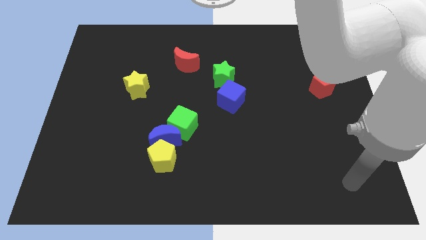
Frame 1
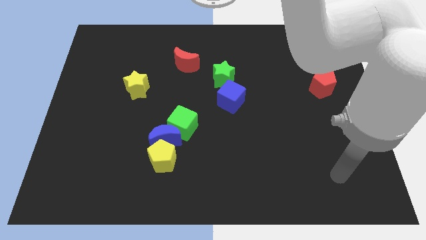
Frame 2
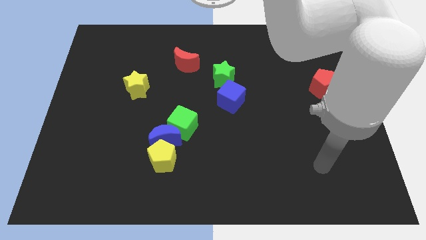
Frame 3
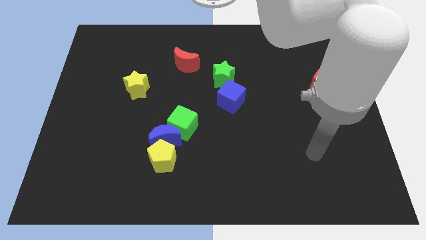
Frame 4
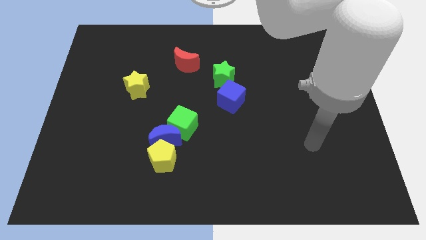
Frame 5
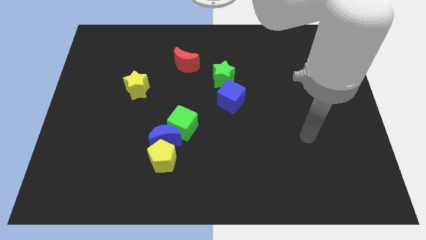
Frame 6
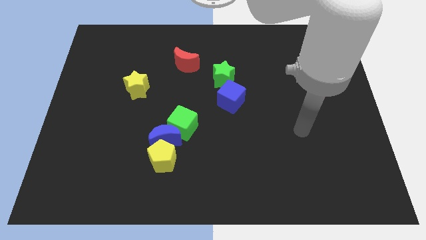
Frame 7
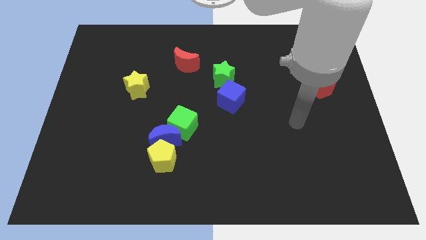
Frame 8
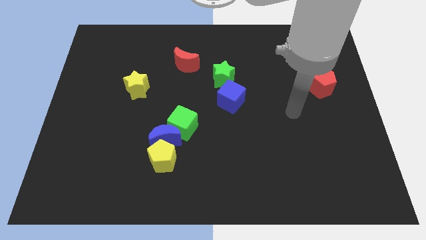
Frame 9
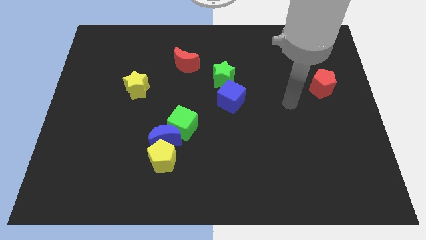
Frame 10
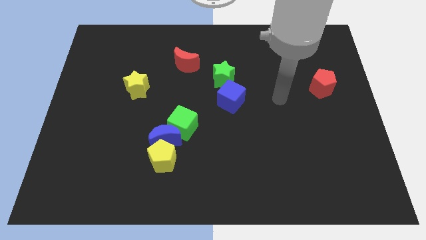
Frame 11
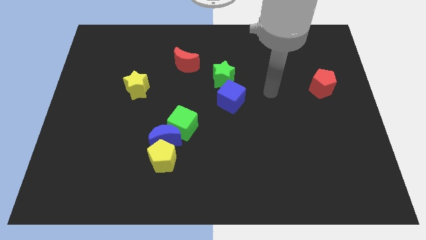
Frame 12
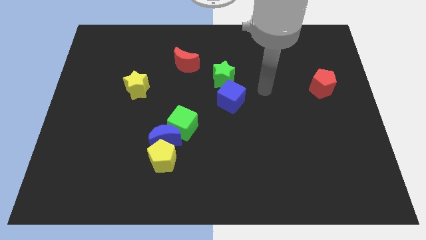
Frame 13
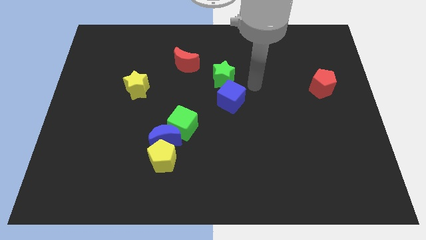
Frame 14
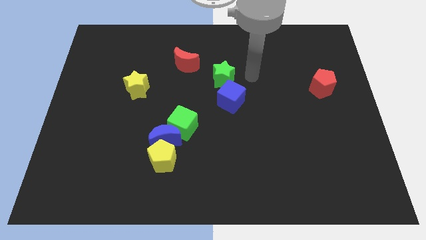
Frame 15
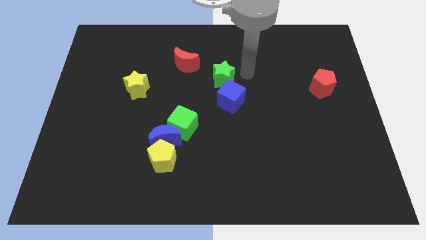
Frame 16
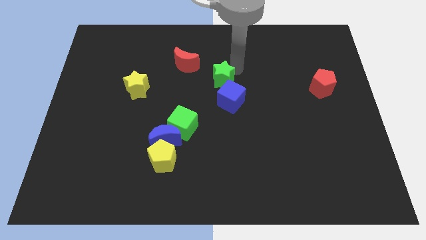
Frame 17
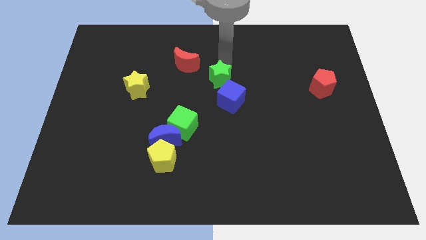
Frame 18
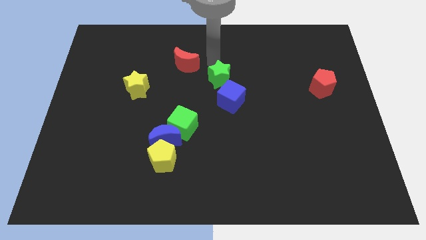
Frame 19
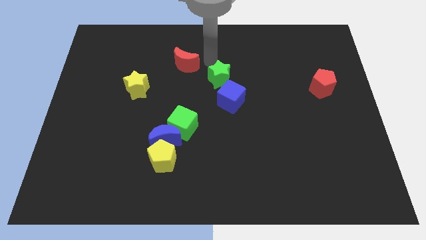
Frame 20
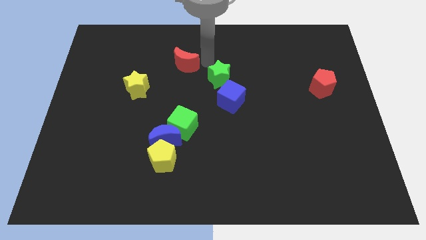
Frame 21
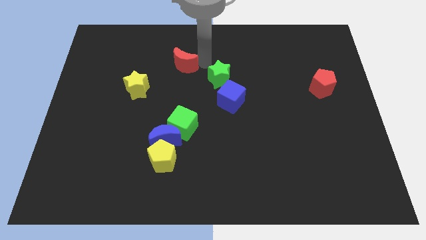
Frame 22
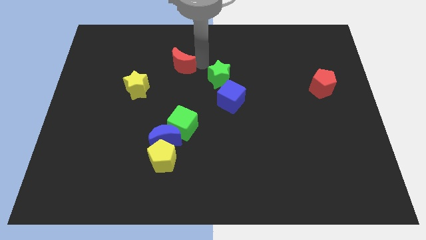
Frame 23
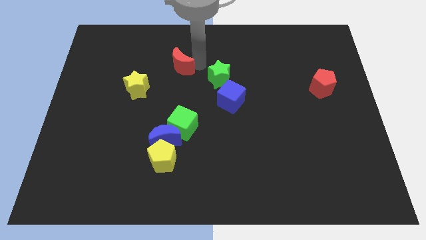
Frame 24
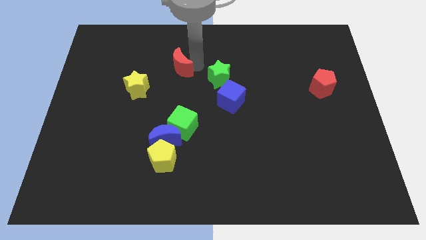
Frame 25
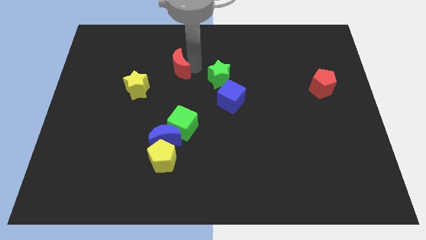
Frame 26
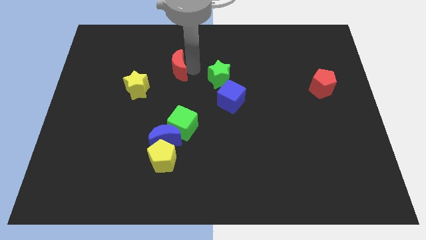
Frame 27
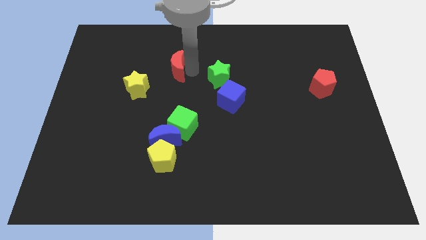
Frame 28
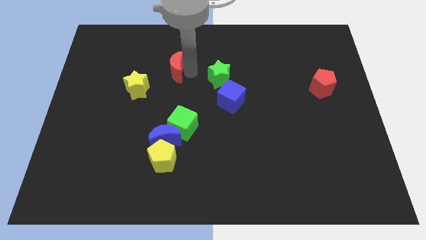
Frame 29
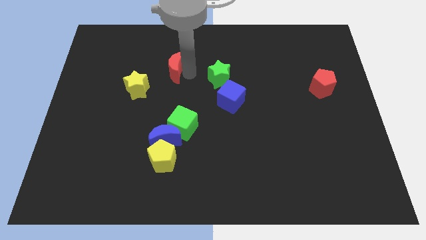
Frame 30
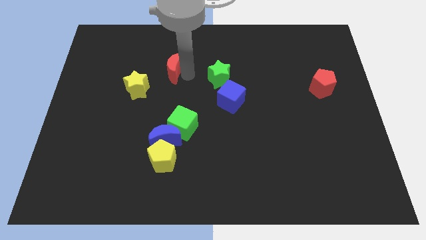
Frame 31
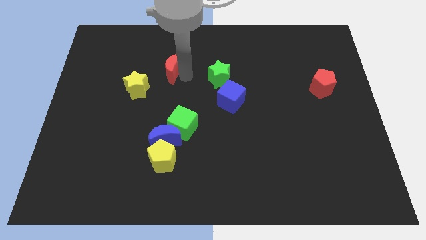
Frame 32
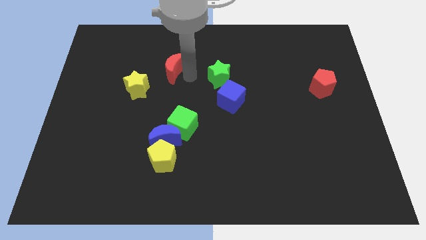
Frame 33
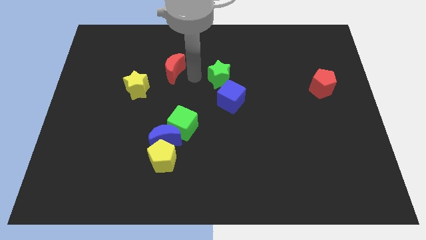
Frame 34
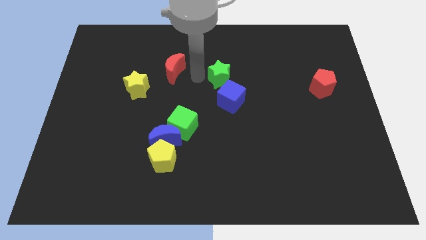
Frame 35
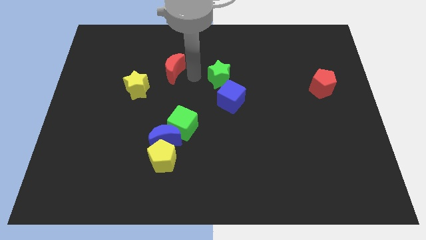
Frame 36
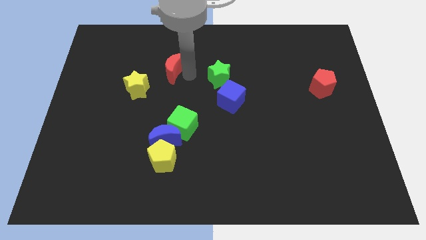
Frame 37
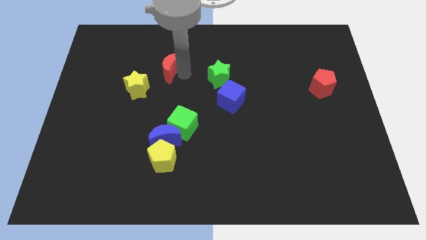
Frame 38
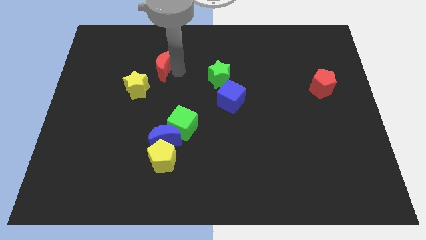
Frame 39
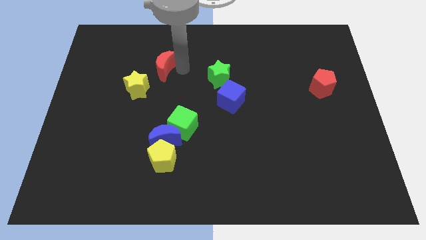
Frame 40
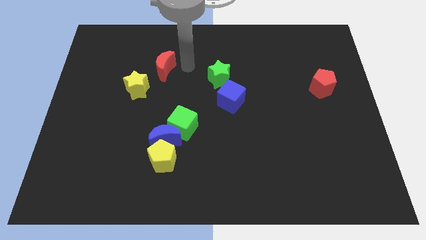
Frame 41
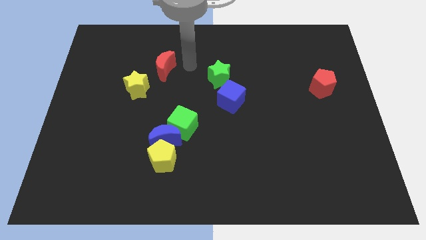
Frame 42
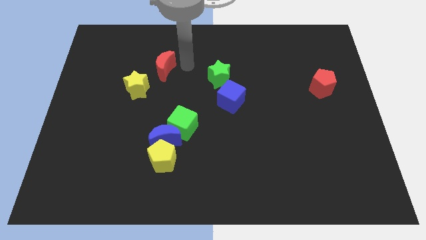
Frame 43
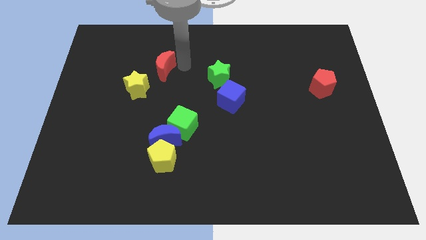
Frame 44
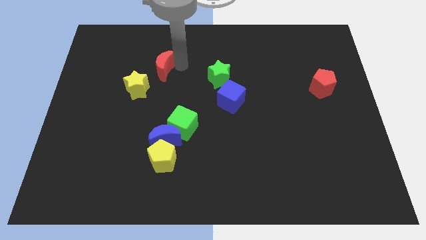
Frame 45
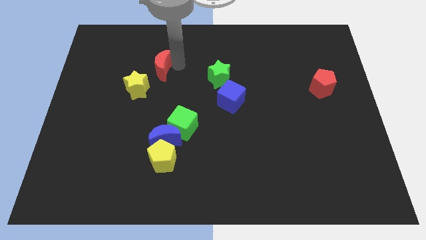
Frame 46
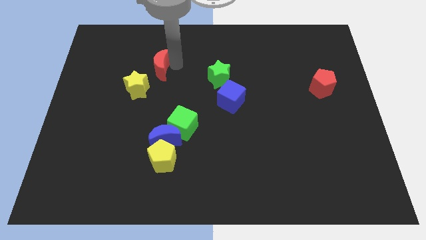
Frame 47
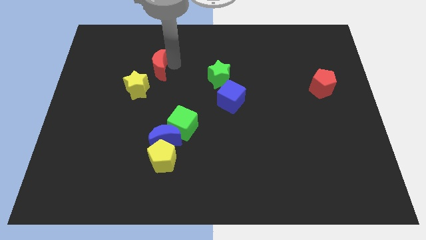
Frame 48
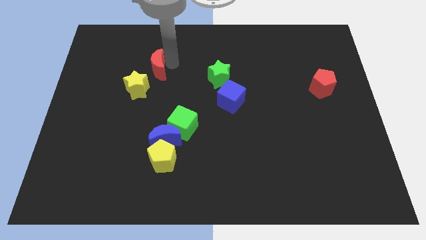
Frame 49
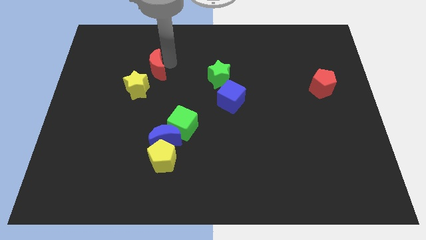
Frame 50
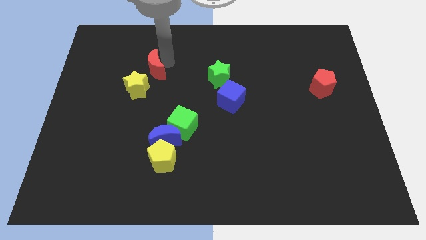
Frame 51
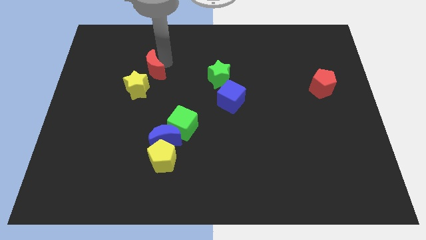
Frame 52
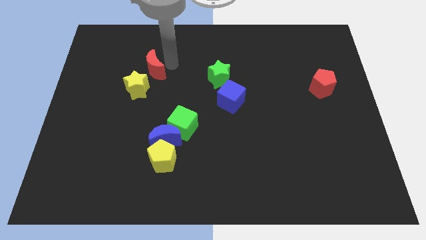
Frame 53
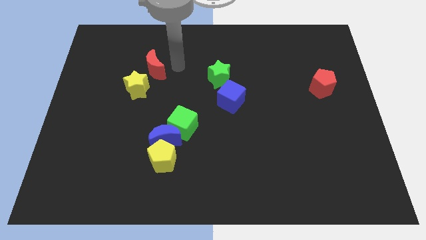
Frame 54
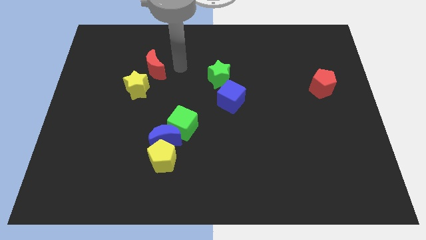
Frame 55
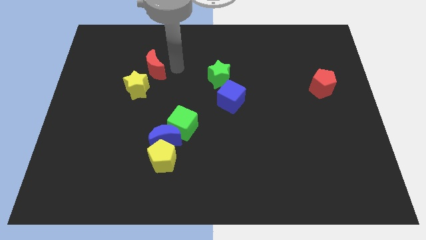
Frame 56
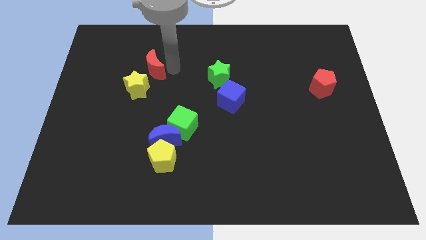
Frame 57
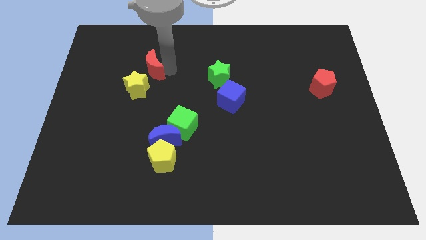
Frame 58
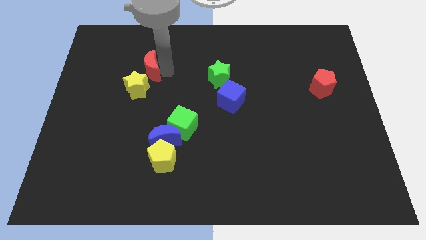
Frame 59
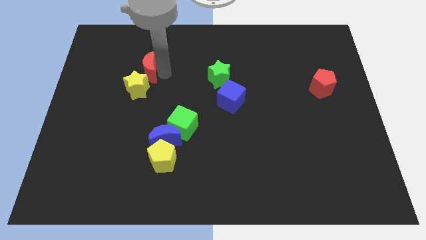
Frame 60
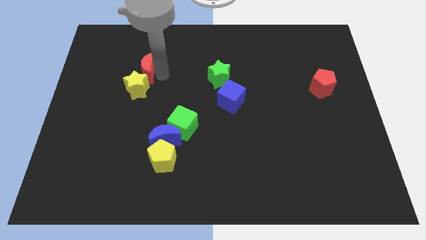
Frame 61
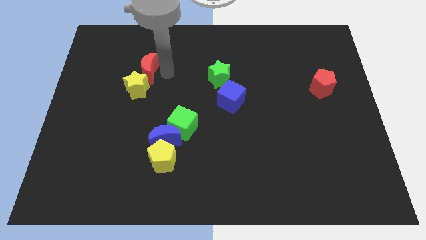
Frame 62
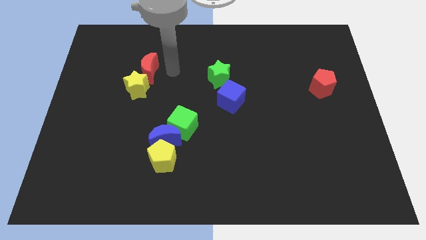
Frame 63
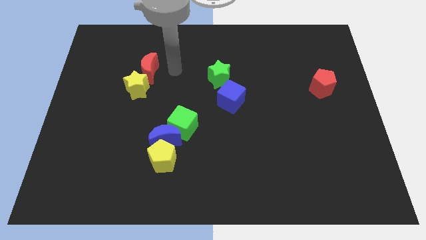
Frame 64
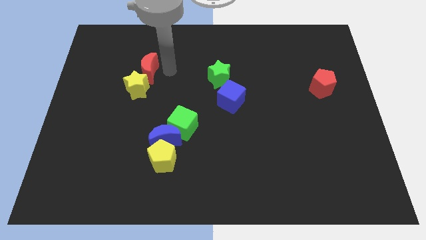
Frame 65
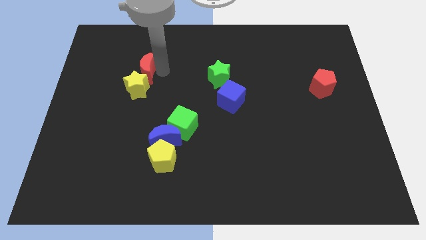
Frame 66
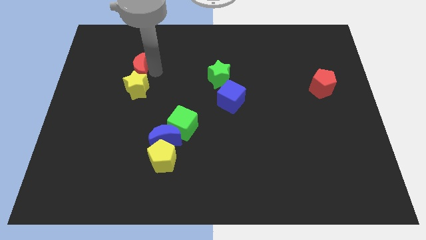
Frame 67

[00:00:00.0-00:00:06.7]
slide the red moon diagonally up and to the left of the yellow star

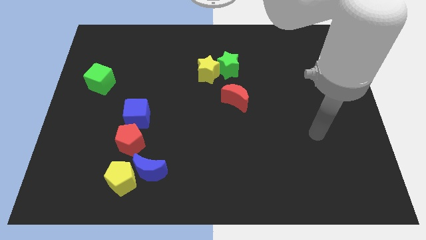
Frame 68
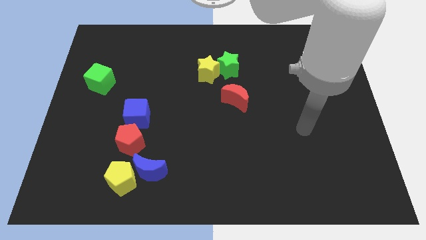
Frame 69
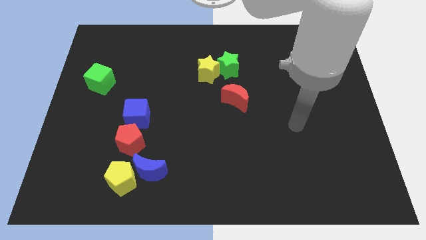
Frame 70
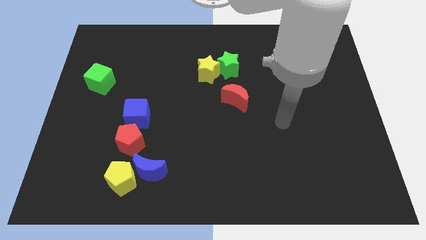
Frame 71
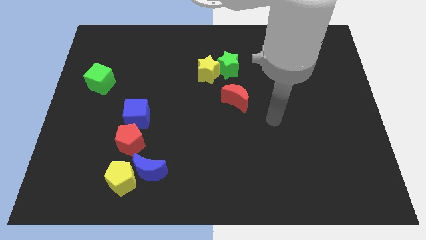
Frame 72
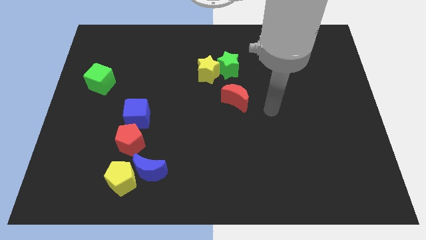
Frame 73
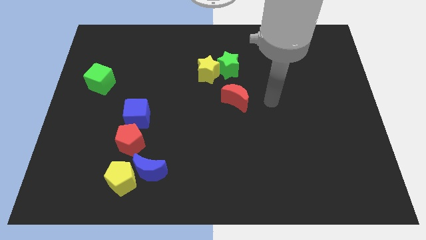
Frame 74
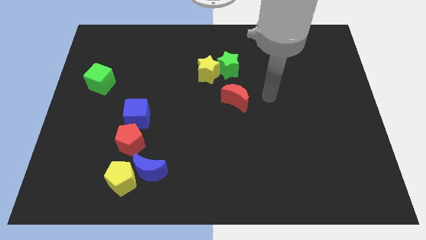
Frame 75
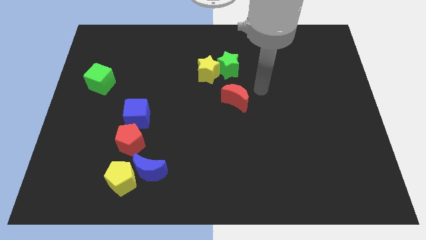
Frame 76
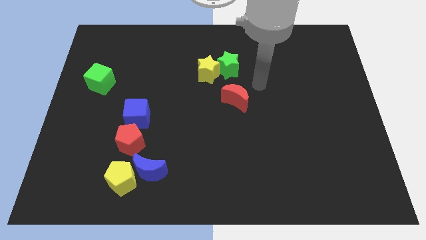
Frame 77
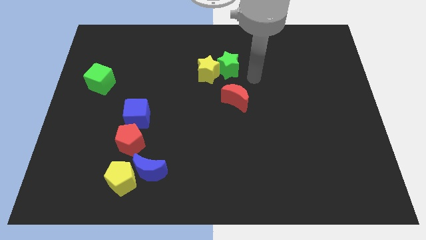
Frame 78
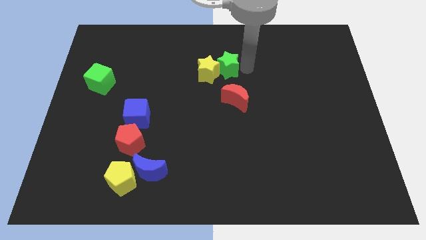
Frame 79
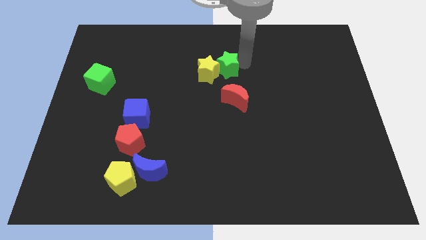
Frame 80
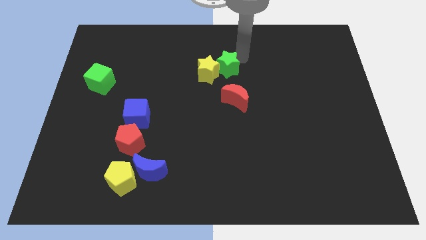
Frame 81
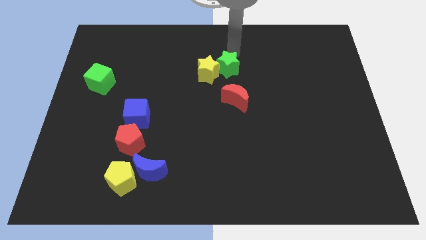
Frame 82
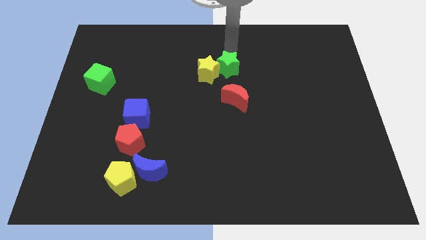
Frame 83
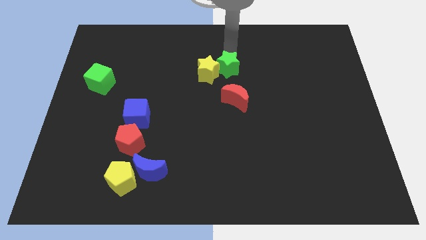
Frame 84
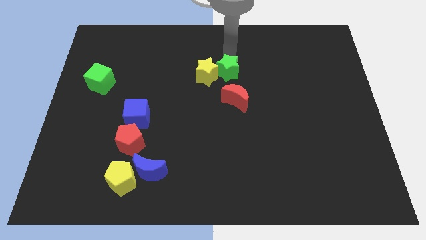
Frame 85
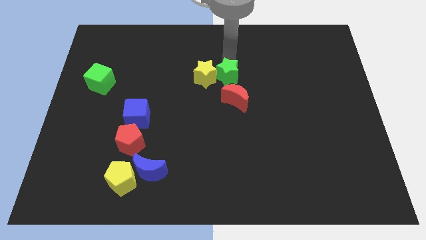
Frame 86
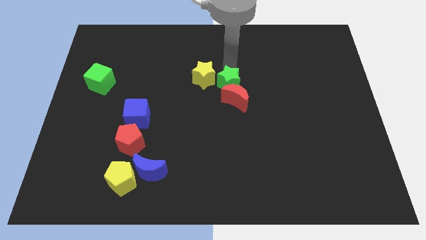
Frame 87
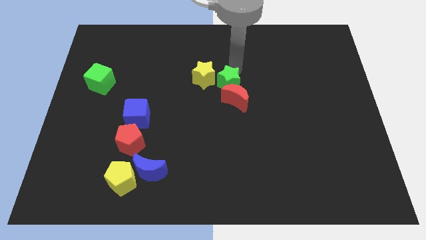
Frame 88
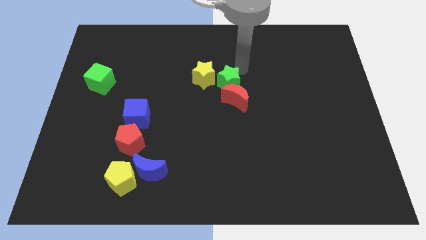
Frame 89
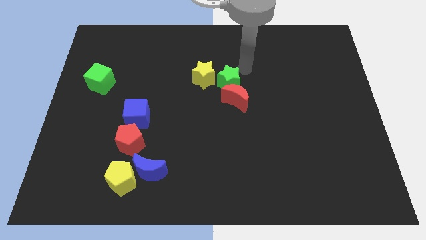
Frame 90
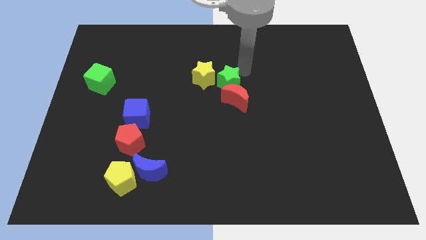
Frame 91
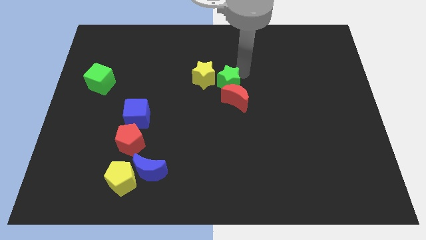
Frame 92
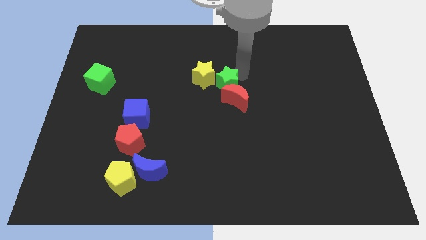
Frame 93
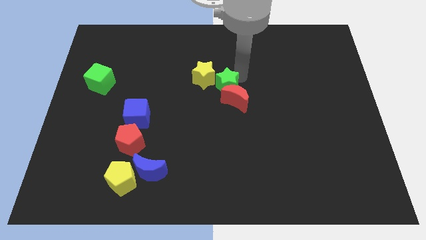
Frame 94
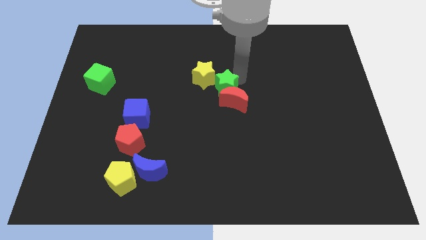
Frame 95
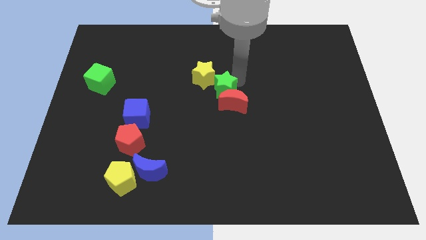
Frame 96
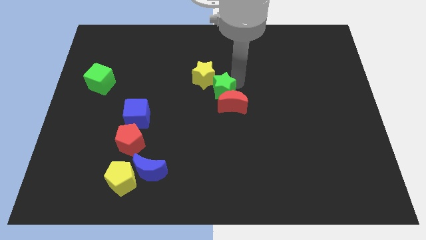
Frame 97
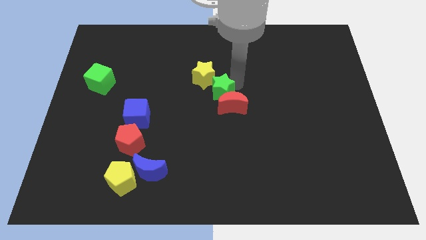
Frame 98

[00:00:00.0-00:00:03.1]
push the green star left of the red moon
